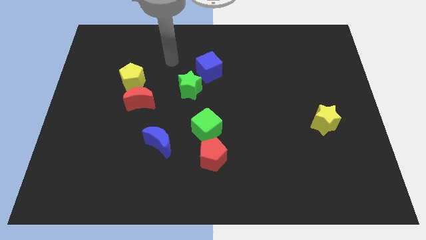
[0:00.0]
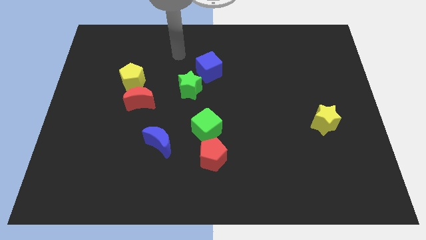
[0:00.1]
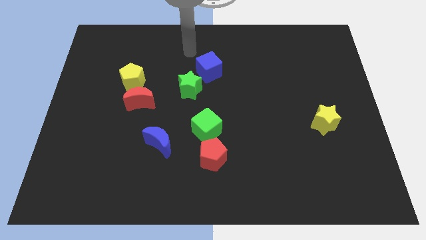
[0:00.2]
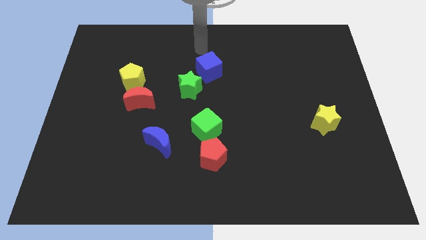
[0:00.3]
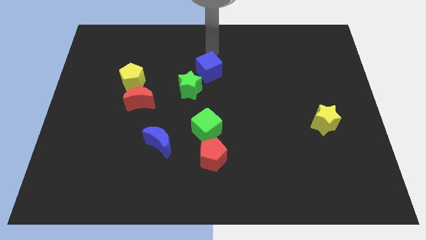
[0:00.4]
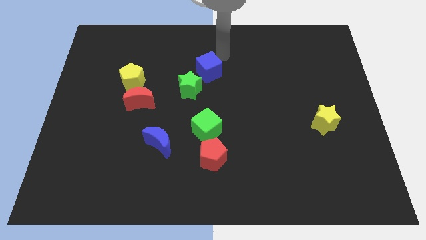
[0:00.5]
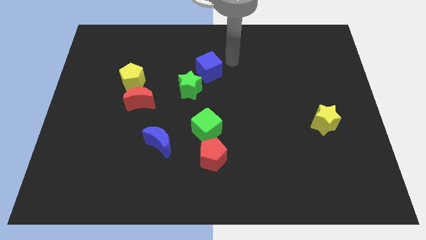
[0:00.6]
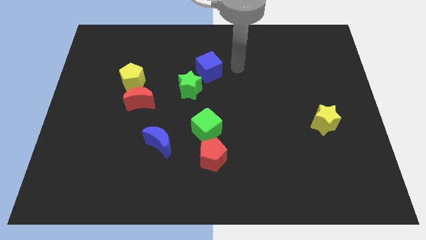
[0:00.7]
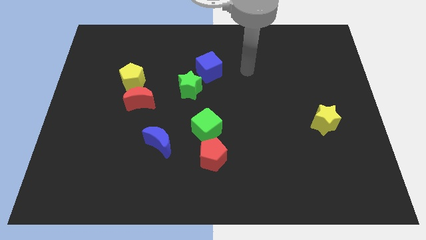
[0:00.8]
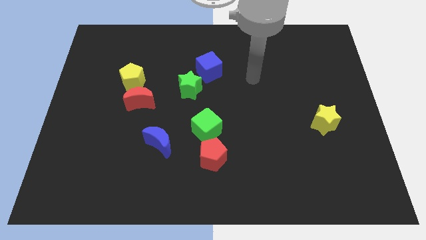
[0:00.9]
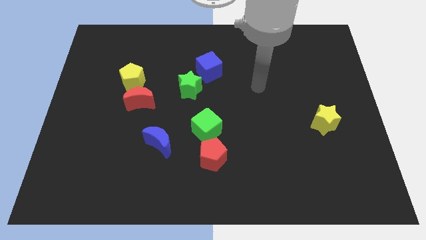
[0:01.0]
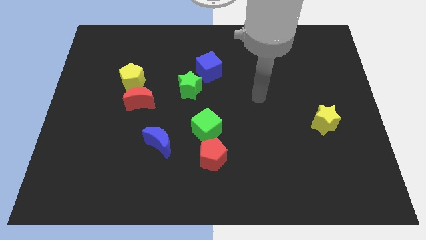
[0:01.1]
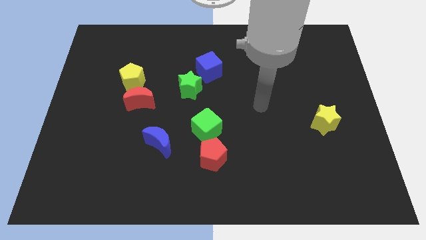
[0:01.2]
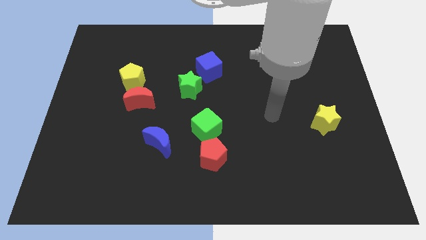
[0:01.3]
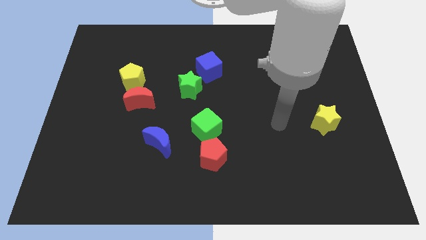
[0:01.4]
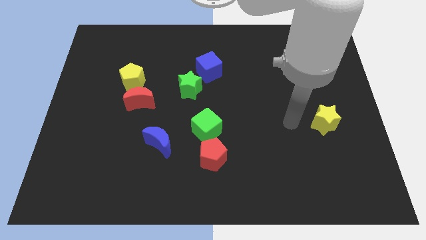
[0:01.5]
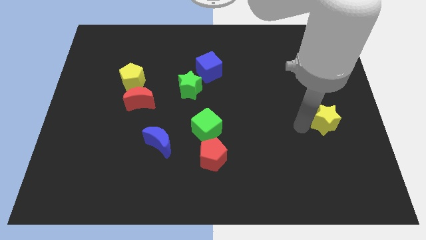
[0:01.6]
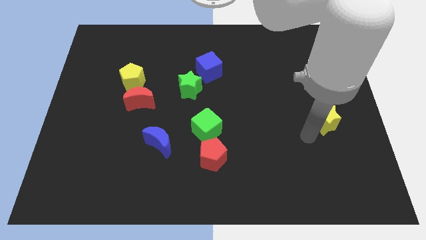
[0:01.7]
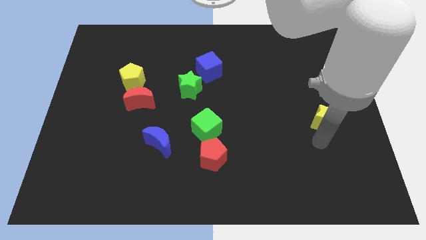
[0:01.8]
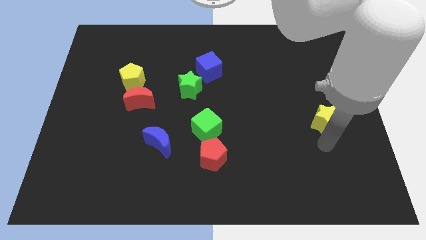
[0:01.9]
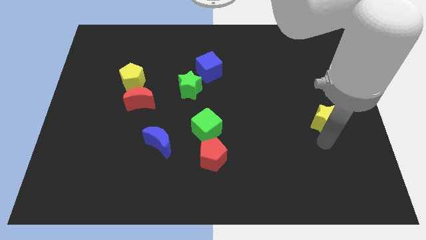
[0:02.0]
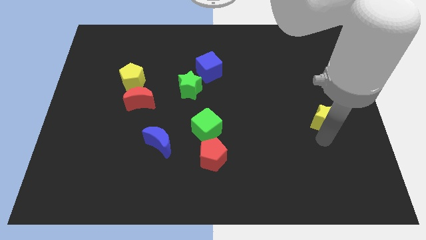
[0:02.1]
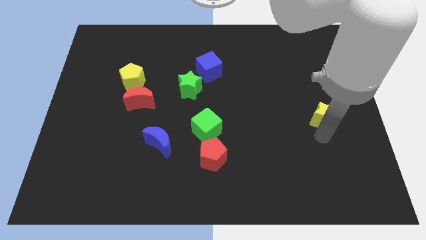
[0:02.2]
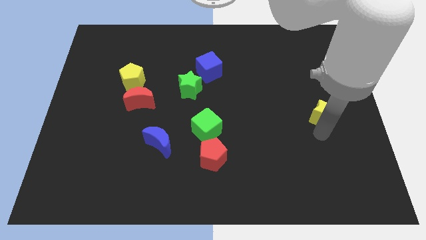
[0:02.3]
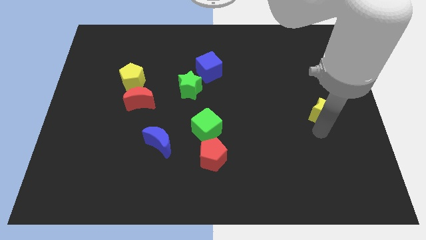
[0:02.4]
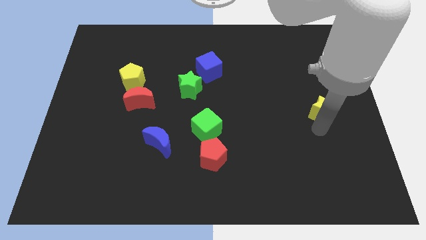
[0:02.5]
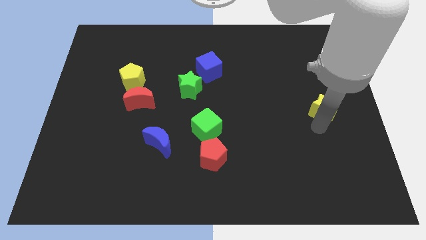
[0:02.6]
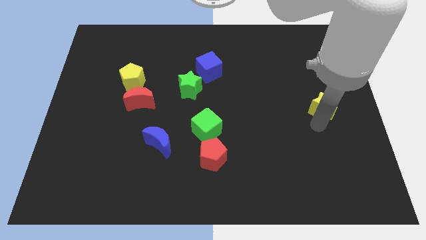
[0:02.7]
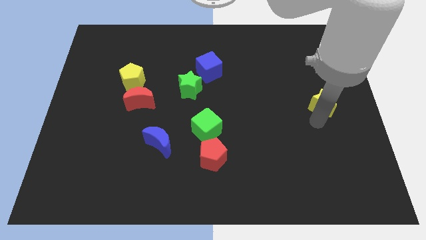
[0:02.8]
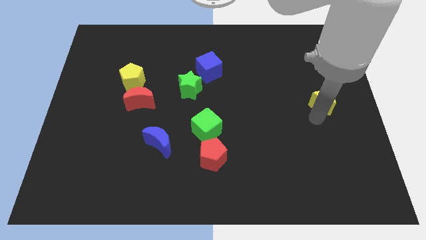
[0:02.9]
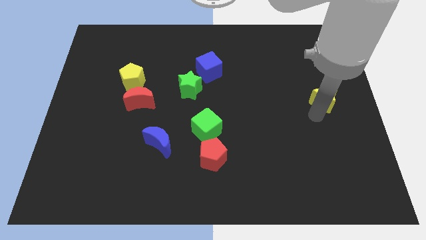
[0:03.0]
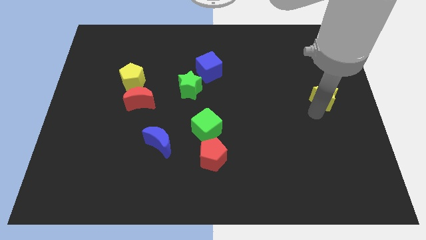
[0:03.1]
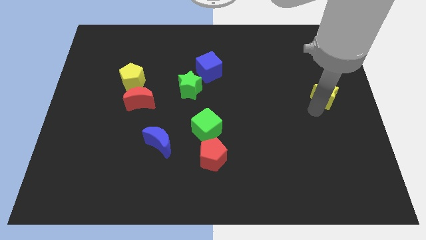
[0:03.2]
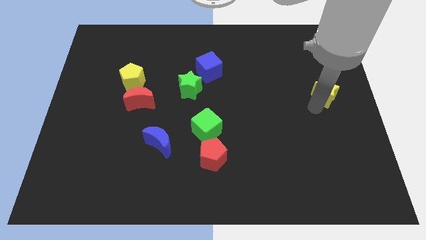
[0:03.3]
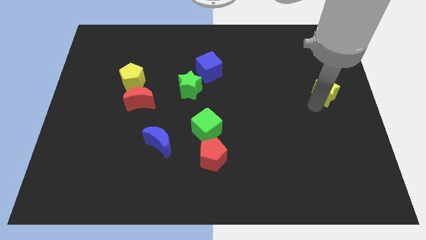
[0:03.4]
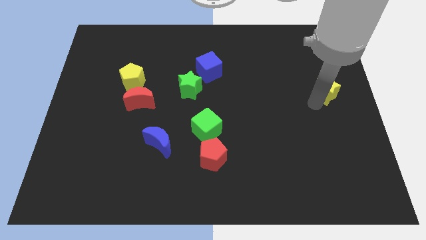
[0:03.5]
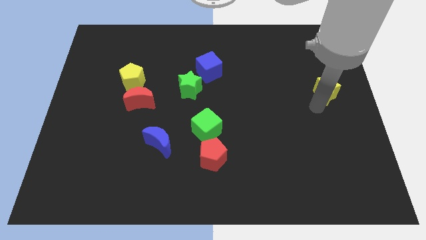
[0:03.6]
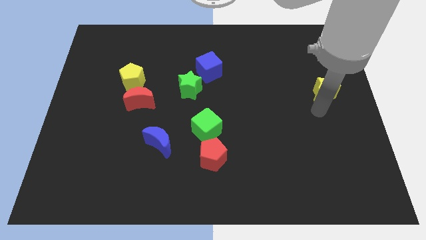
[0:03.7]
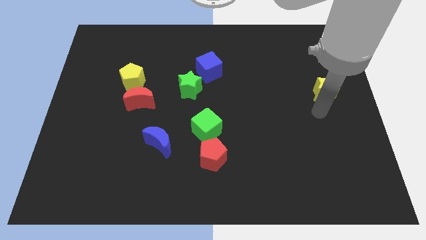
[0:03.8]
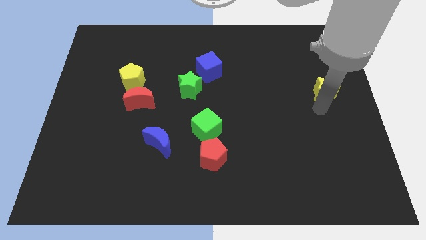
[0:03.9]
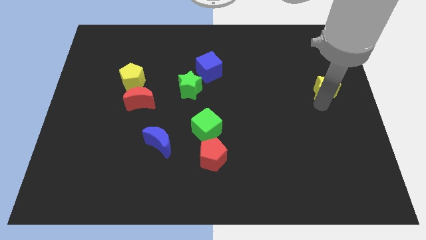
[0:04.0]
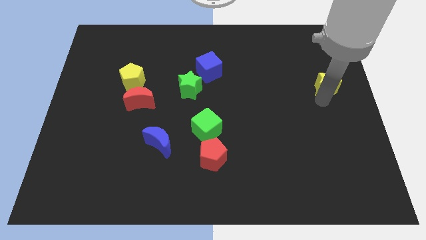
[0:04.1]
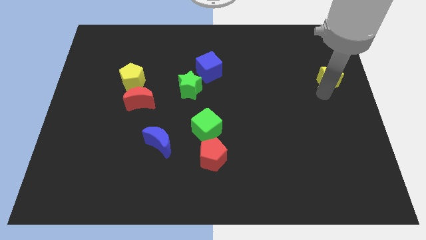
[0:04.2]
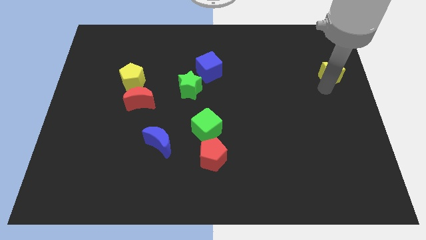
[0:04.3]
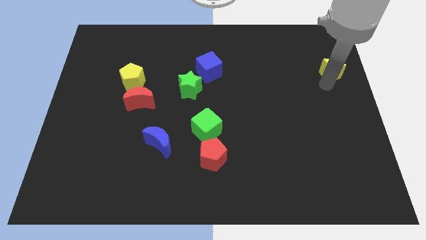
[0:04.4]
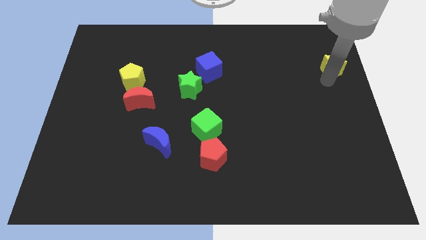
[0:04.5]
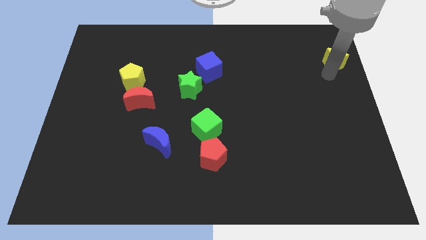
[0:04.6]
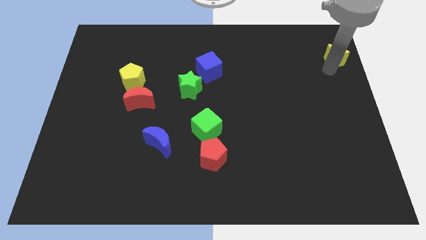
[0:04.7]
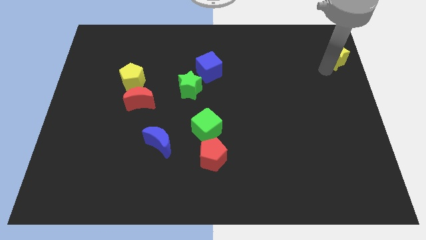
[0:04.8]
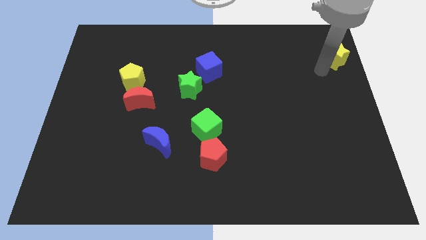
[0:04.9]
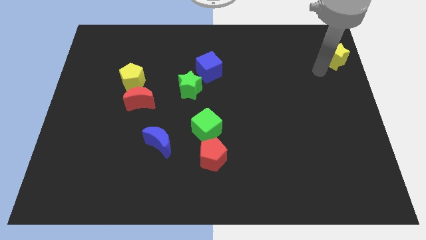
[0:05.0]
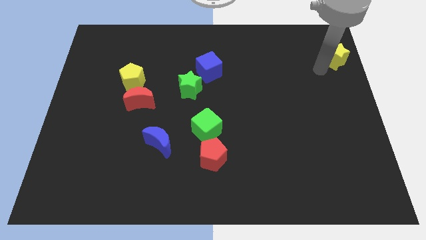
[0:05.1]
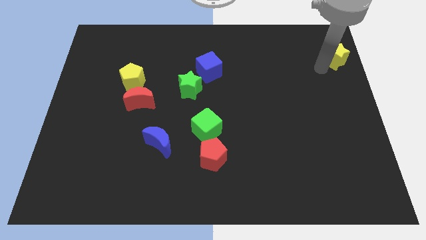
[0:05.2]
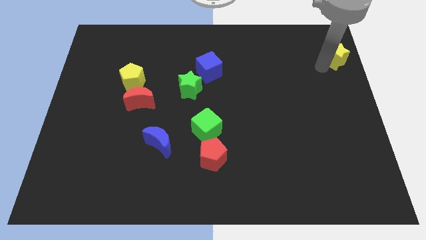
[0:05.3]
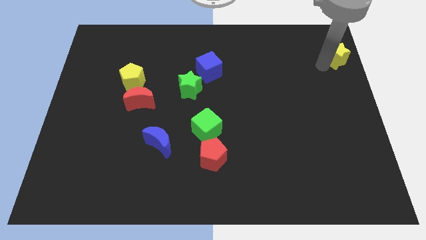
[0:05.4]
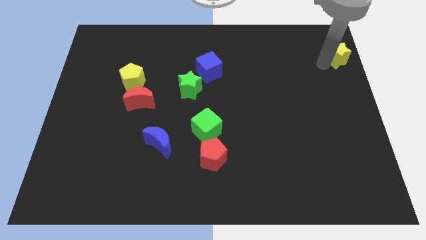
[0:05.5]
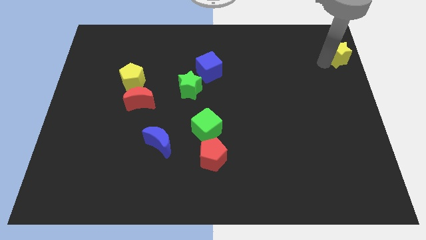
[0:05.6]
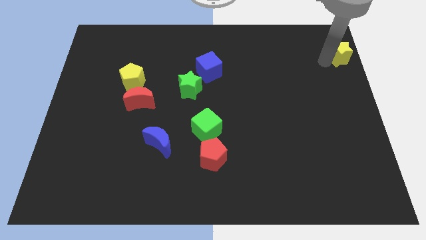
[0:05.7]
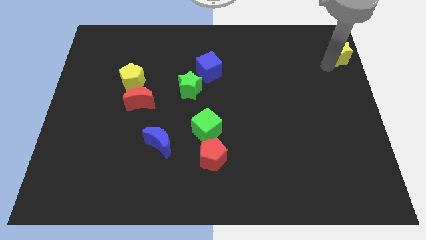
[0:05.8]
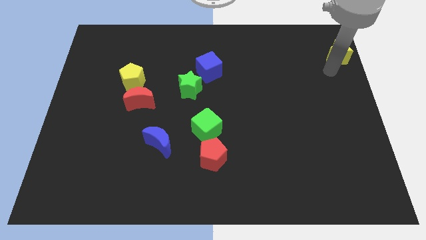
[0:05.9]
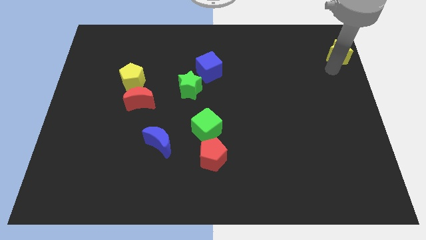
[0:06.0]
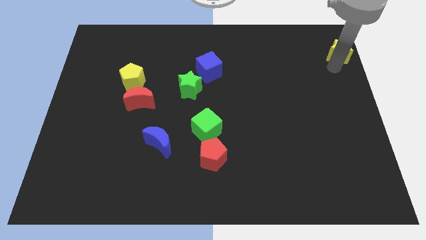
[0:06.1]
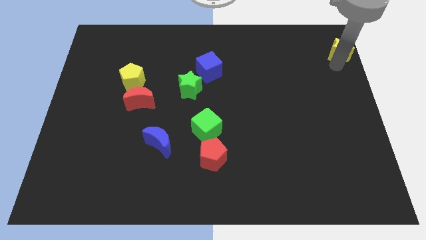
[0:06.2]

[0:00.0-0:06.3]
put the yellow star to the top right

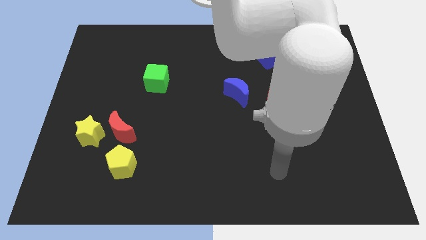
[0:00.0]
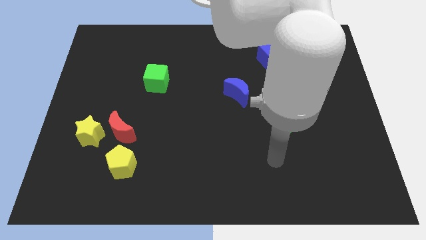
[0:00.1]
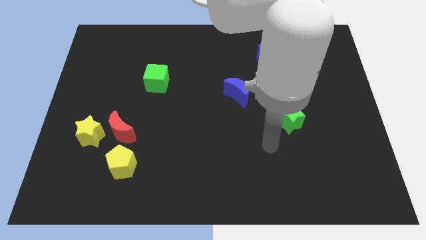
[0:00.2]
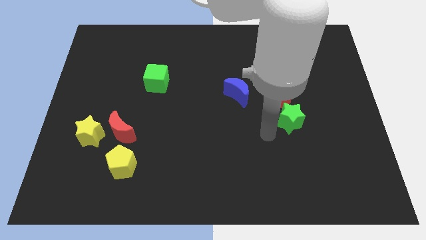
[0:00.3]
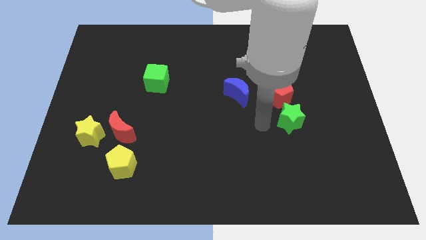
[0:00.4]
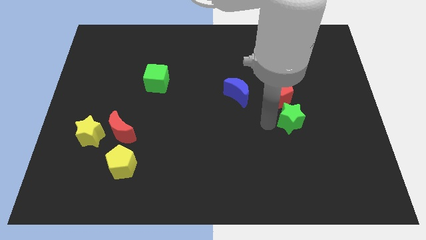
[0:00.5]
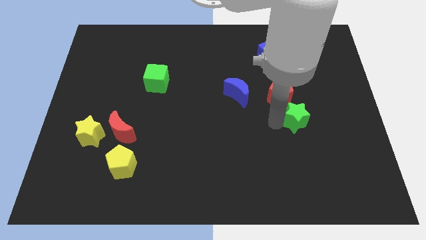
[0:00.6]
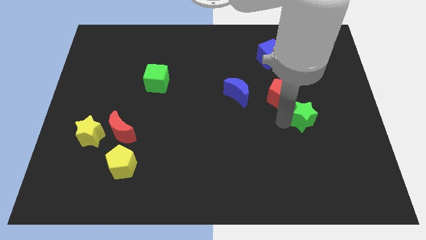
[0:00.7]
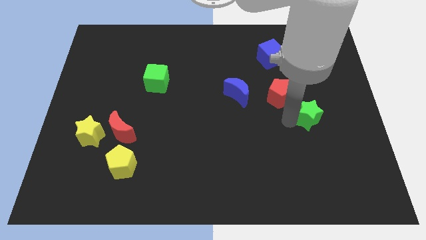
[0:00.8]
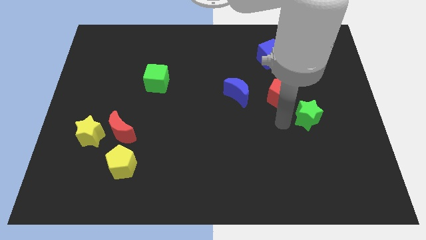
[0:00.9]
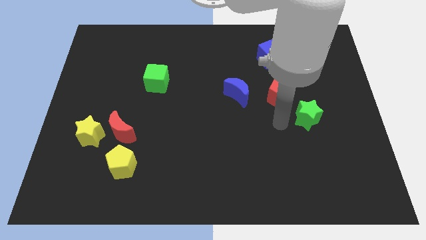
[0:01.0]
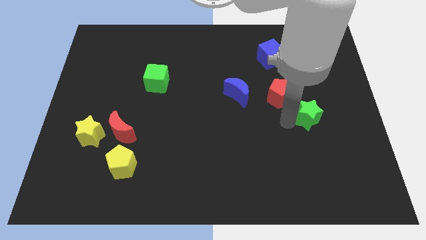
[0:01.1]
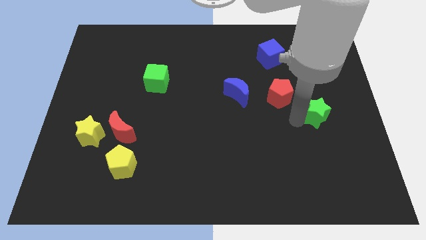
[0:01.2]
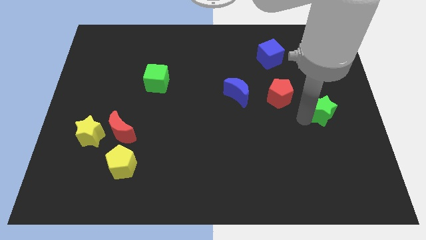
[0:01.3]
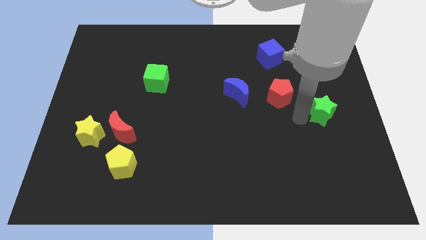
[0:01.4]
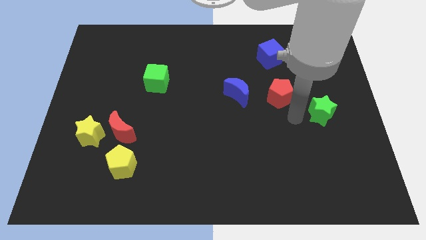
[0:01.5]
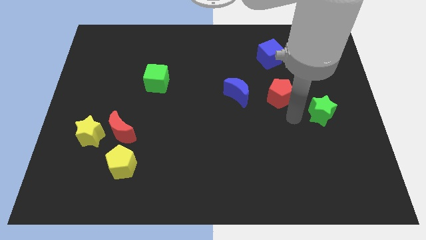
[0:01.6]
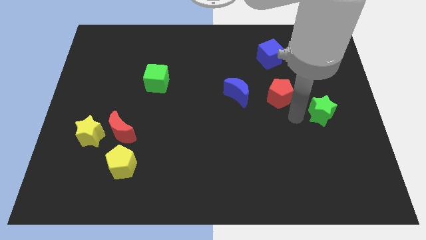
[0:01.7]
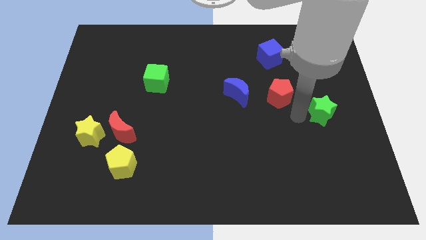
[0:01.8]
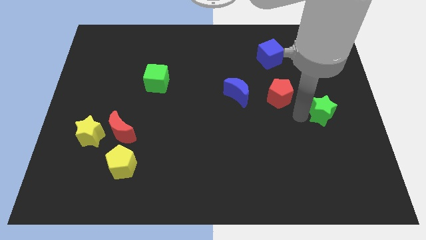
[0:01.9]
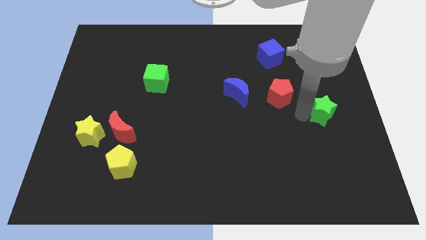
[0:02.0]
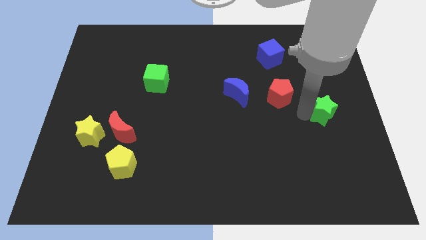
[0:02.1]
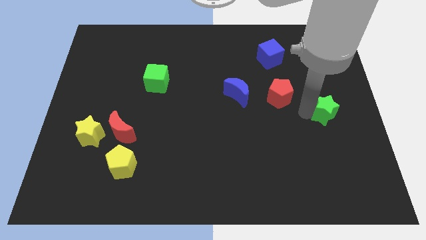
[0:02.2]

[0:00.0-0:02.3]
move the green star to the right side
